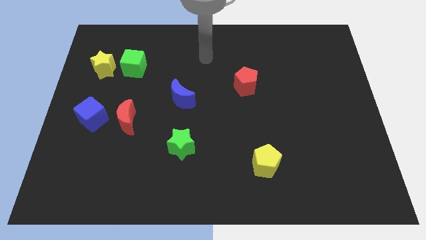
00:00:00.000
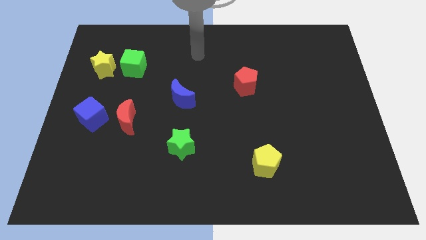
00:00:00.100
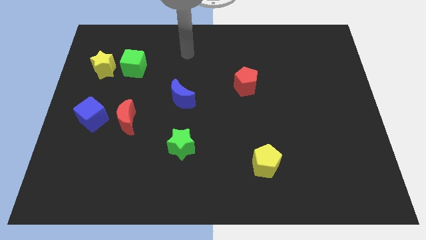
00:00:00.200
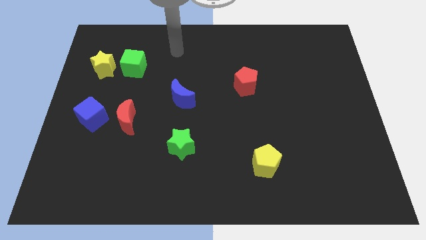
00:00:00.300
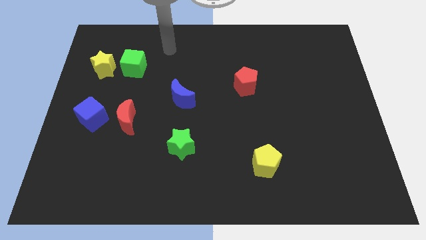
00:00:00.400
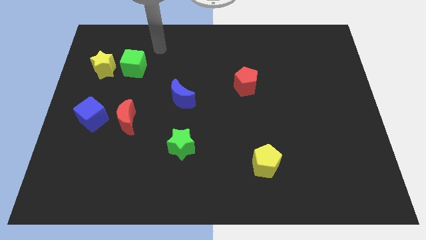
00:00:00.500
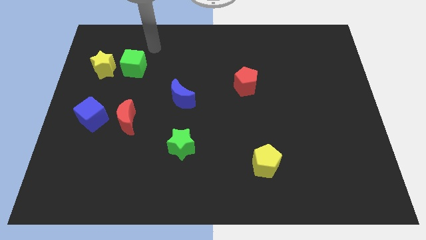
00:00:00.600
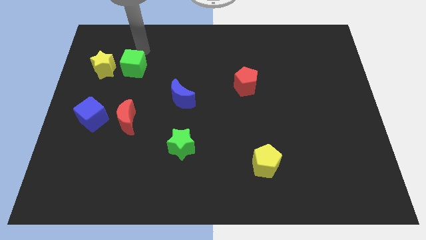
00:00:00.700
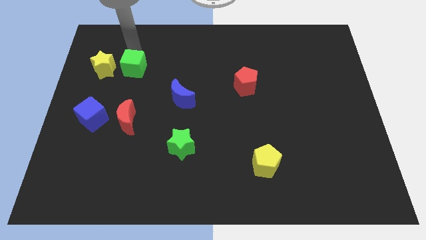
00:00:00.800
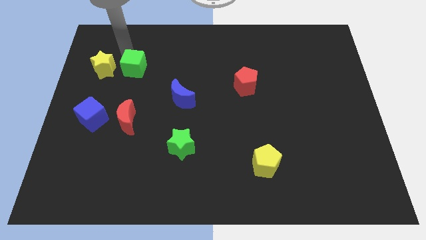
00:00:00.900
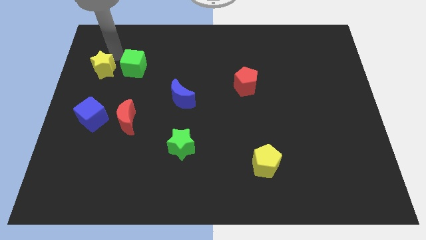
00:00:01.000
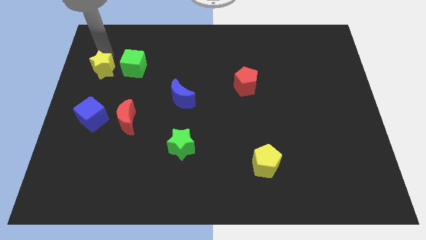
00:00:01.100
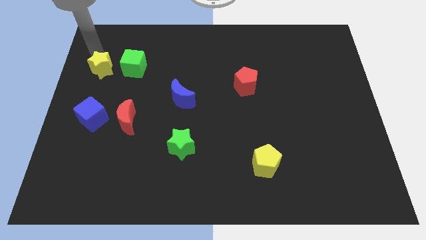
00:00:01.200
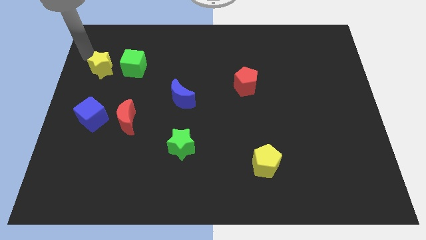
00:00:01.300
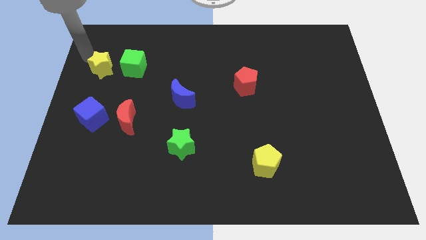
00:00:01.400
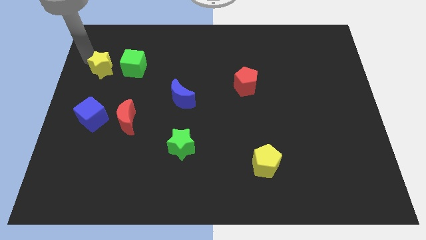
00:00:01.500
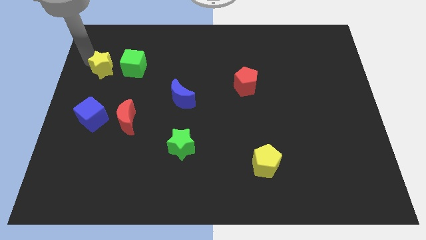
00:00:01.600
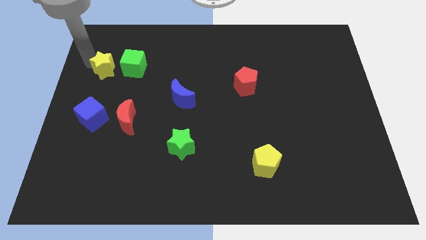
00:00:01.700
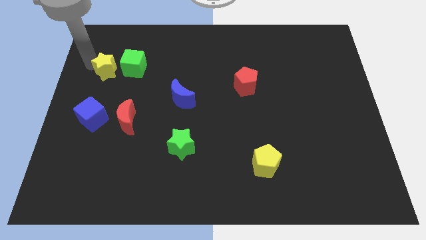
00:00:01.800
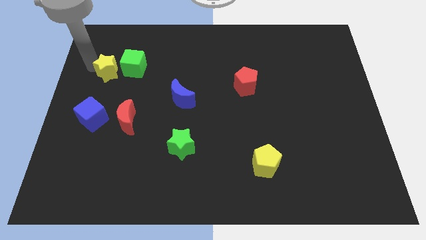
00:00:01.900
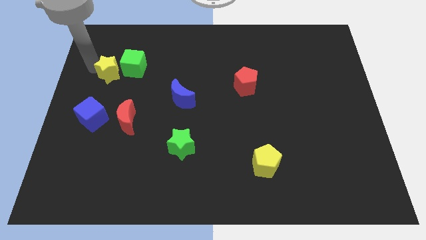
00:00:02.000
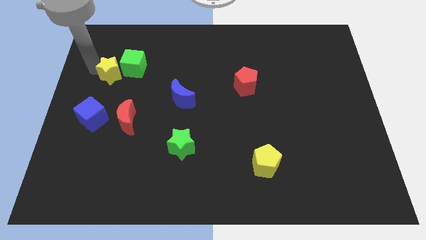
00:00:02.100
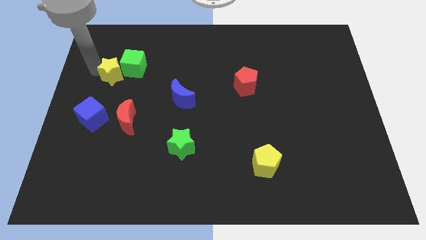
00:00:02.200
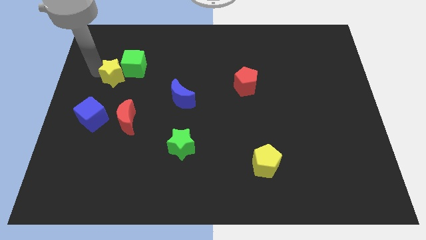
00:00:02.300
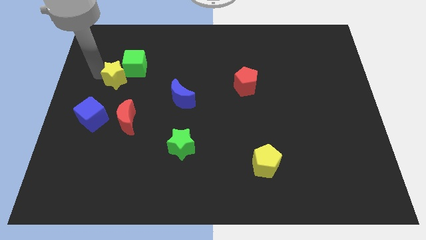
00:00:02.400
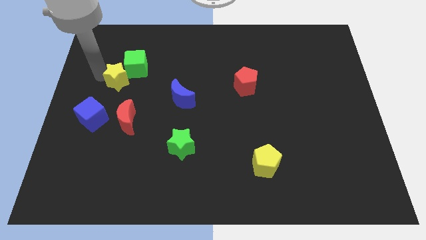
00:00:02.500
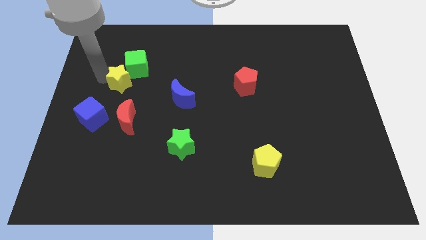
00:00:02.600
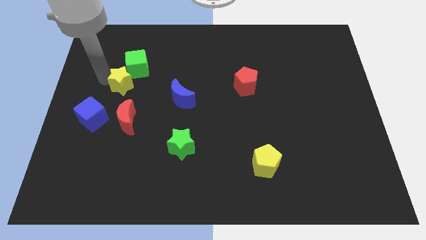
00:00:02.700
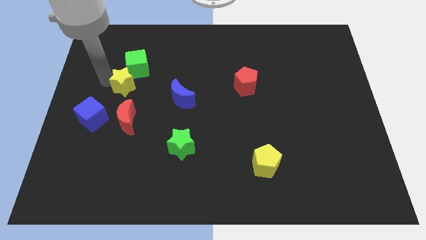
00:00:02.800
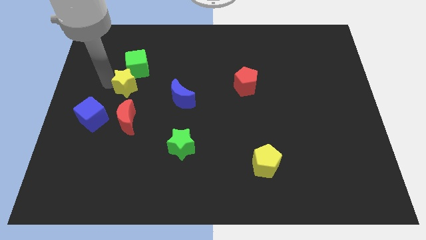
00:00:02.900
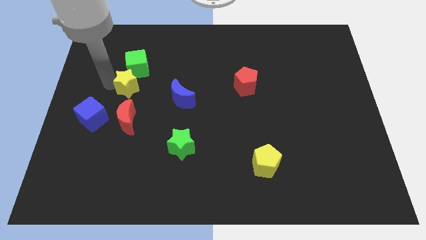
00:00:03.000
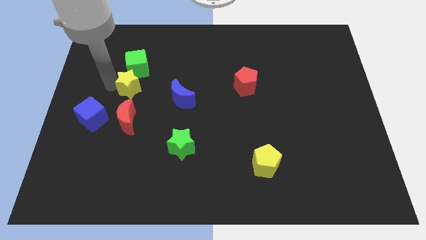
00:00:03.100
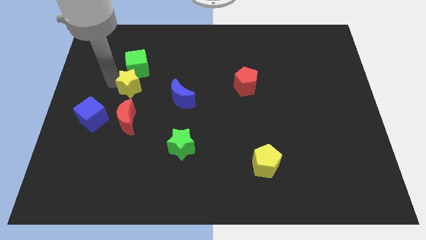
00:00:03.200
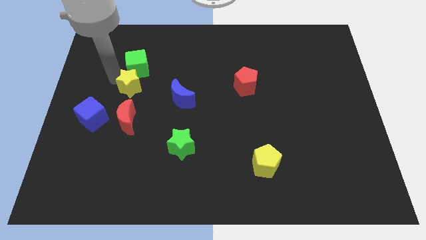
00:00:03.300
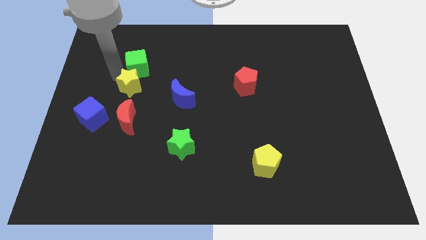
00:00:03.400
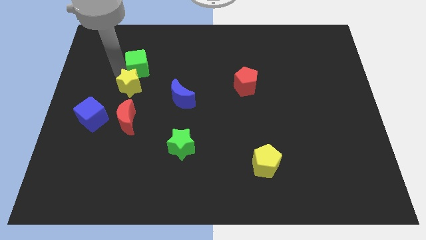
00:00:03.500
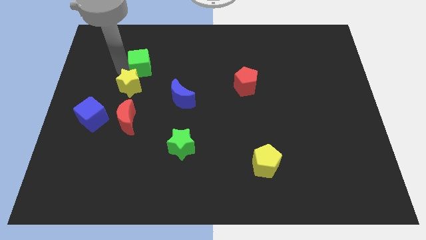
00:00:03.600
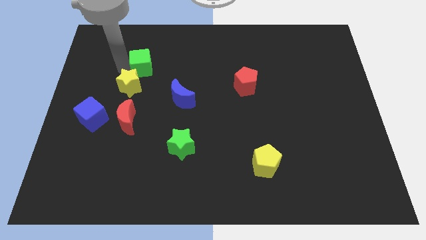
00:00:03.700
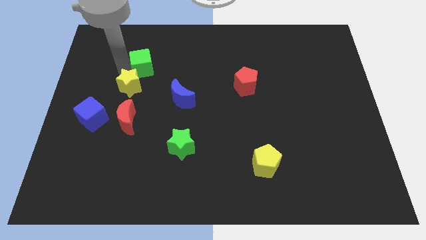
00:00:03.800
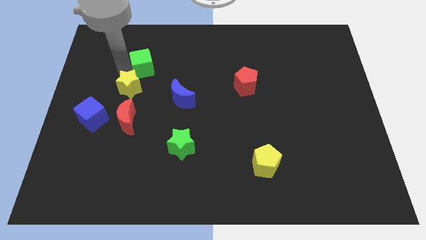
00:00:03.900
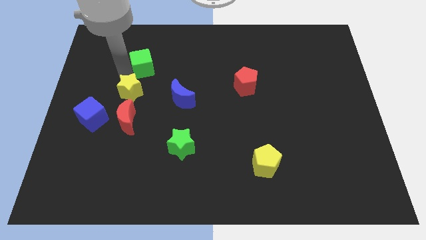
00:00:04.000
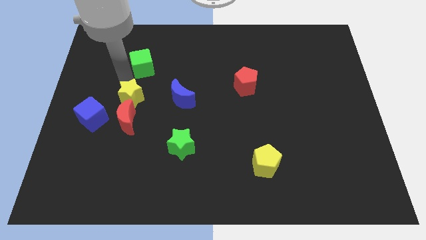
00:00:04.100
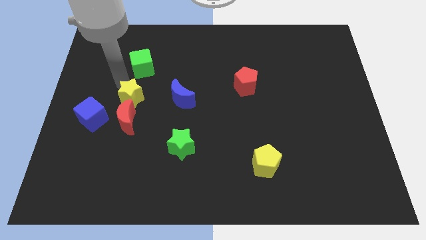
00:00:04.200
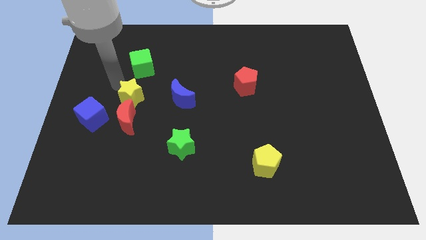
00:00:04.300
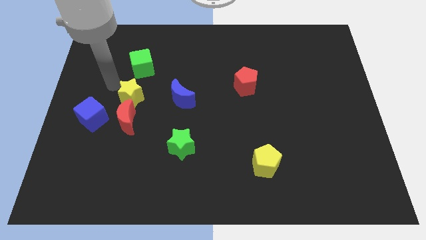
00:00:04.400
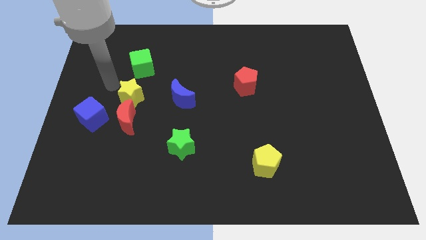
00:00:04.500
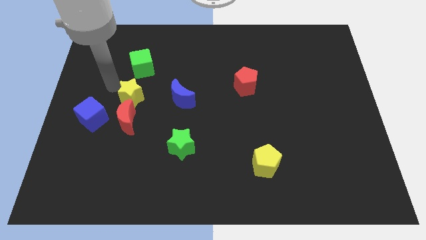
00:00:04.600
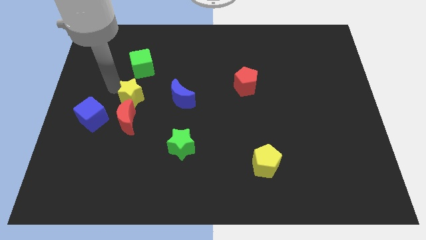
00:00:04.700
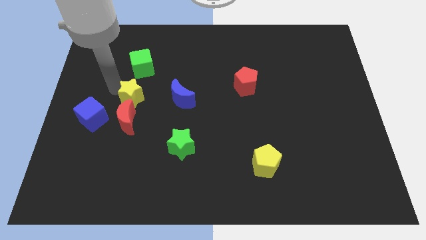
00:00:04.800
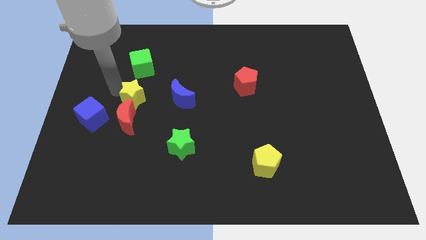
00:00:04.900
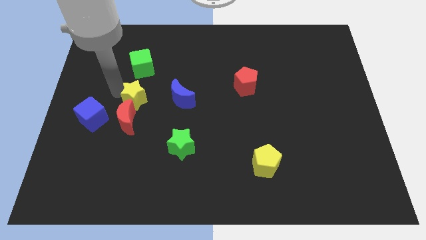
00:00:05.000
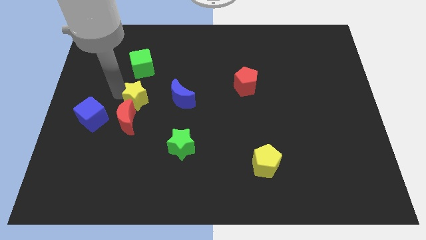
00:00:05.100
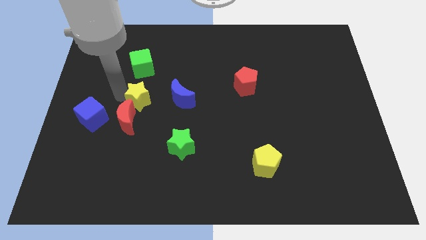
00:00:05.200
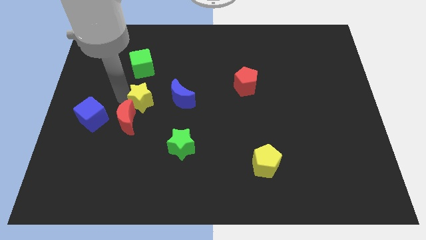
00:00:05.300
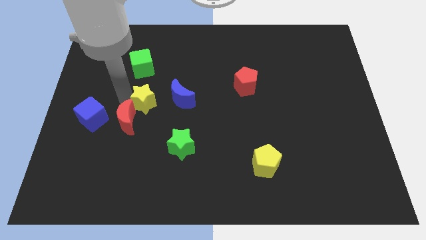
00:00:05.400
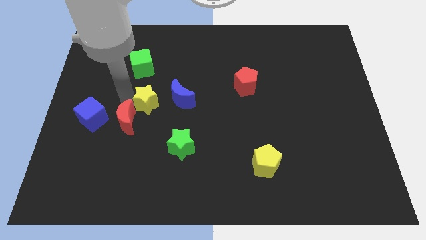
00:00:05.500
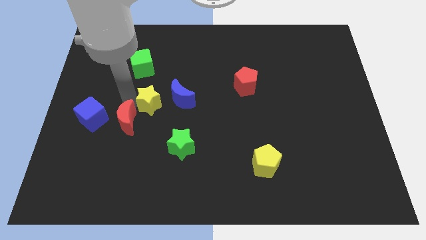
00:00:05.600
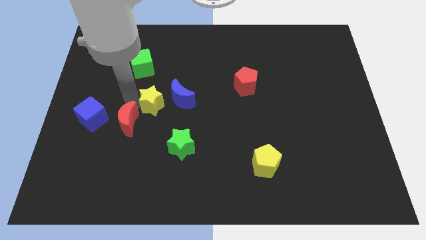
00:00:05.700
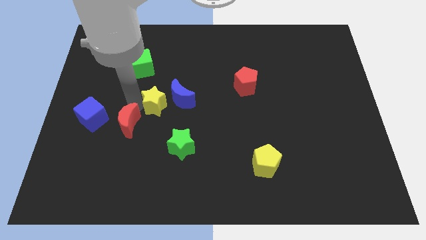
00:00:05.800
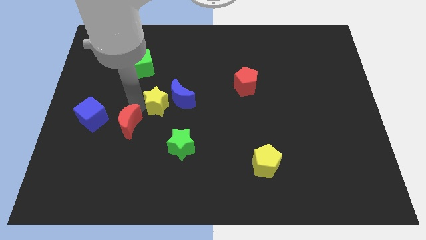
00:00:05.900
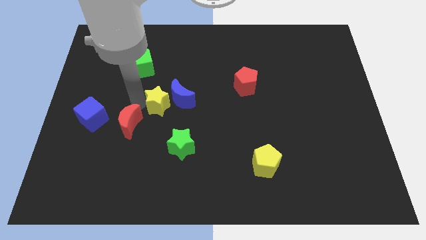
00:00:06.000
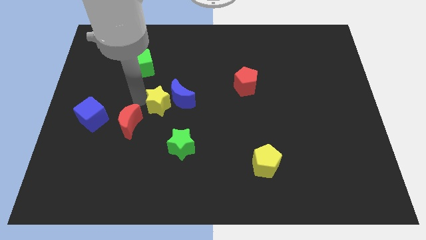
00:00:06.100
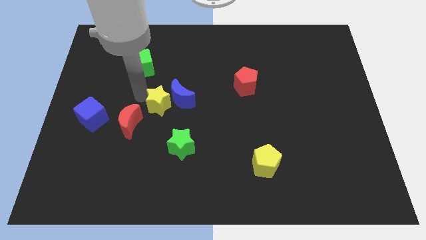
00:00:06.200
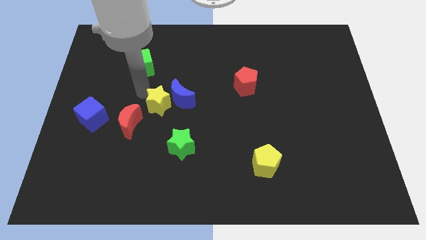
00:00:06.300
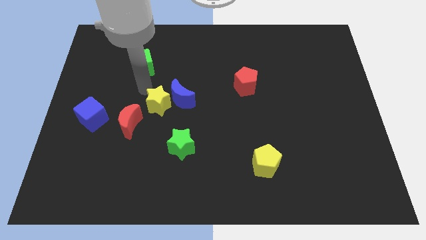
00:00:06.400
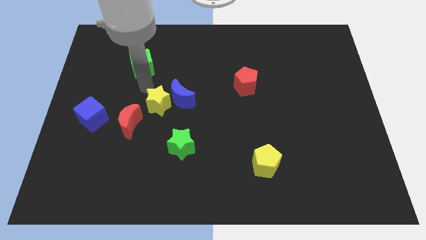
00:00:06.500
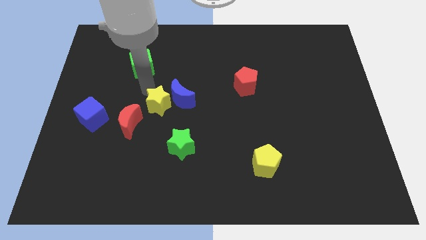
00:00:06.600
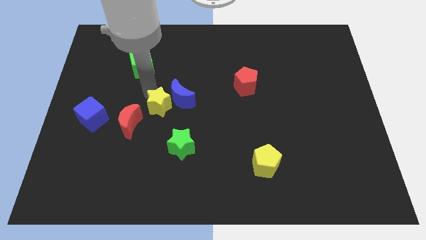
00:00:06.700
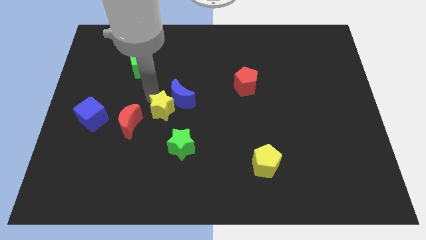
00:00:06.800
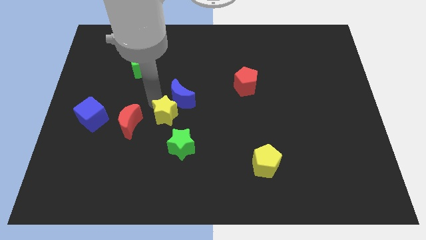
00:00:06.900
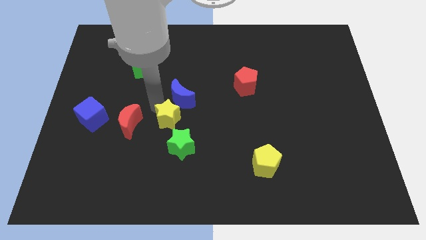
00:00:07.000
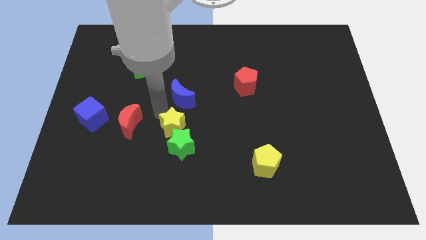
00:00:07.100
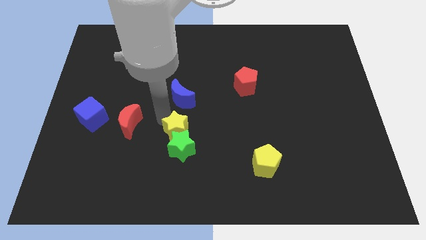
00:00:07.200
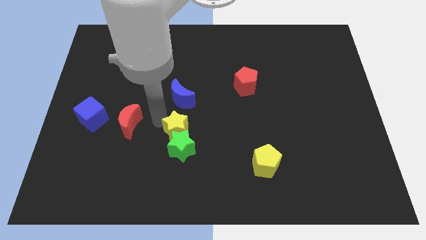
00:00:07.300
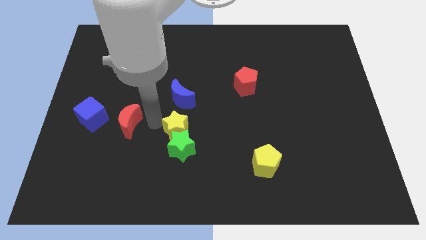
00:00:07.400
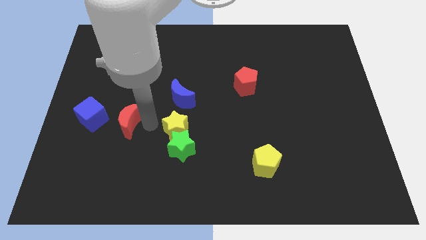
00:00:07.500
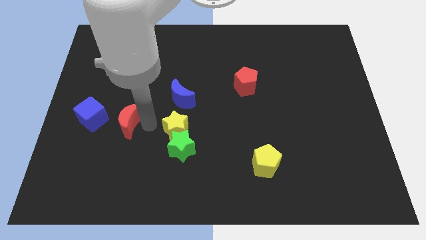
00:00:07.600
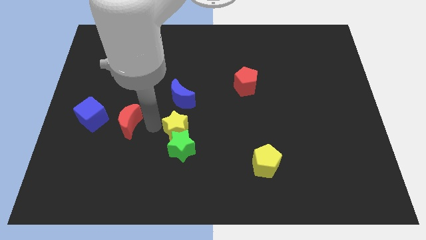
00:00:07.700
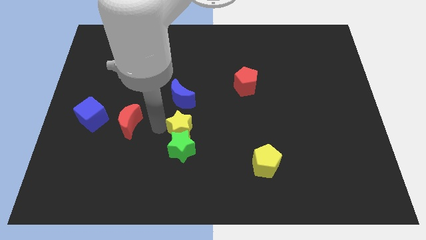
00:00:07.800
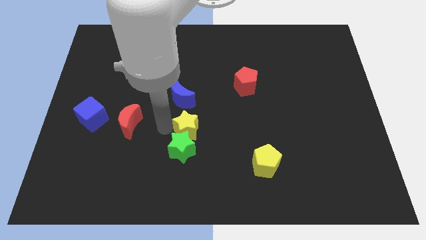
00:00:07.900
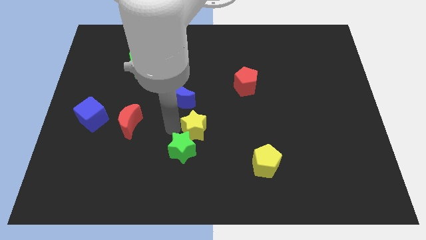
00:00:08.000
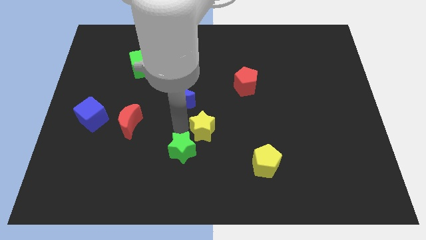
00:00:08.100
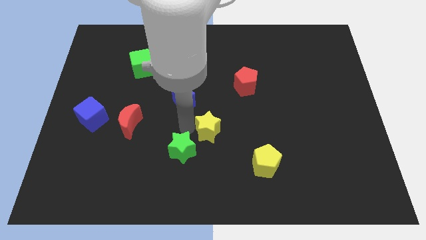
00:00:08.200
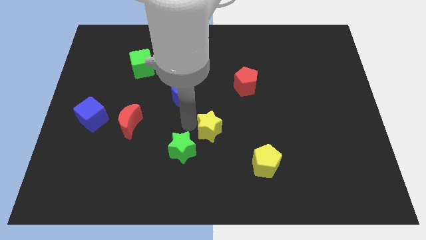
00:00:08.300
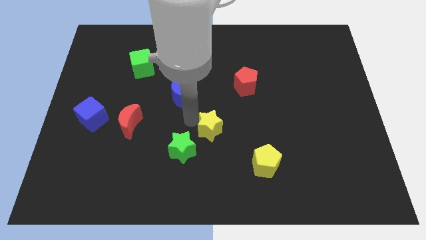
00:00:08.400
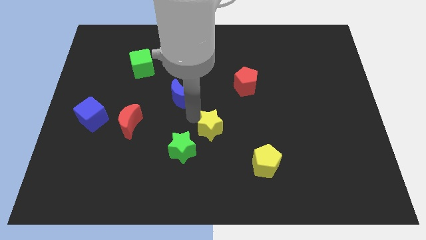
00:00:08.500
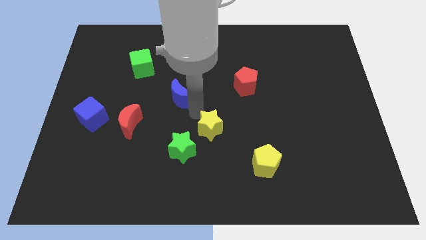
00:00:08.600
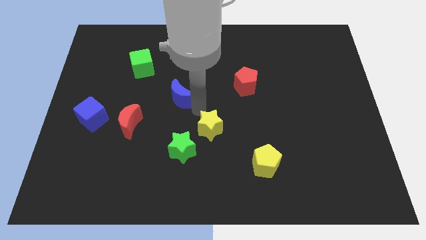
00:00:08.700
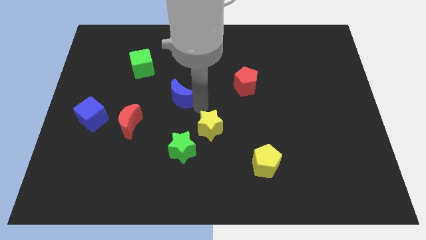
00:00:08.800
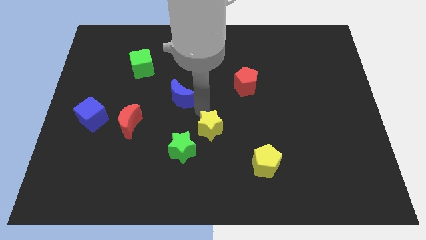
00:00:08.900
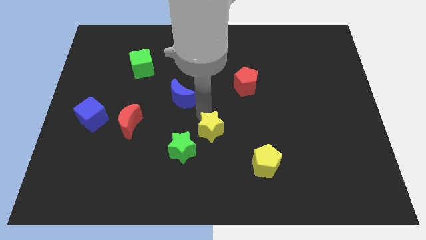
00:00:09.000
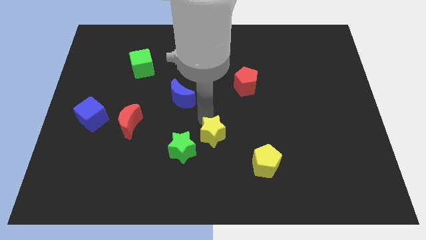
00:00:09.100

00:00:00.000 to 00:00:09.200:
push the yellow star to the right of the green star
